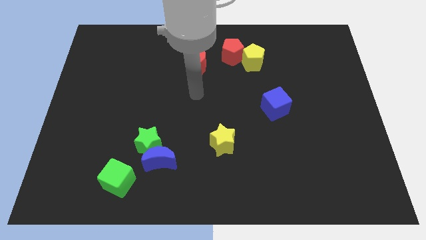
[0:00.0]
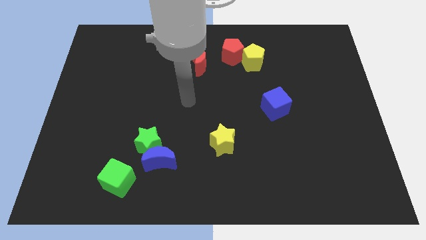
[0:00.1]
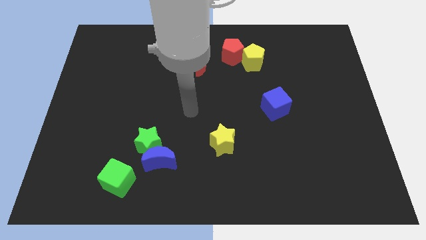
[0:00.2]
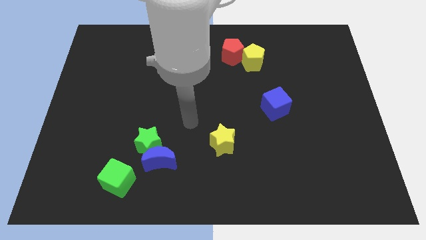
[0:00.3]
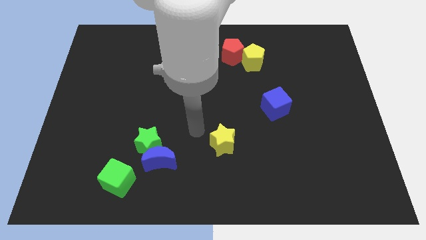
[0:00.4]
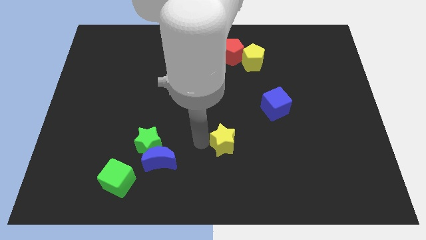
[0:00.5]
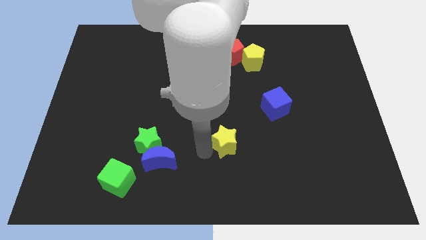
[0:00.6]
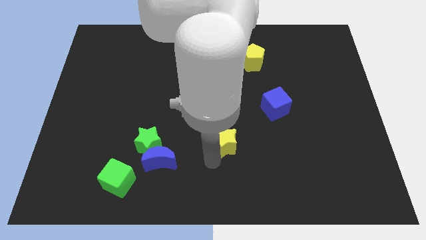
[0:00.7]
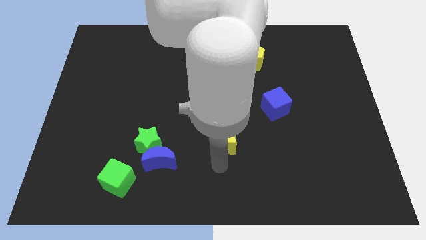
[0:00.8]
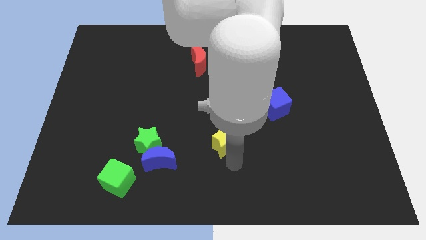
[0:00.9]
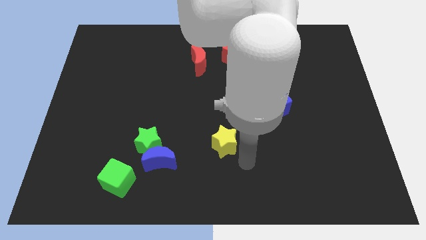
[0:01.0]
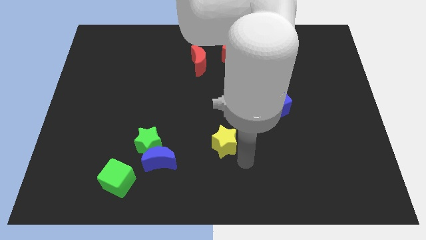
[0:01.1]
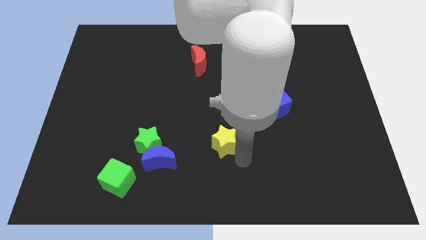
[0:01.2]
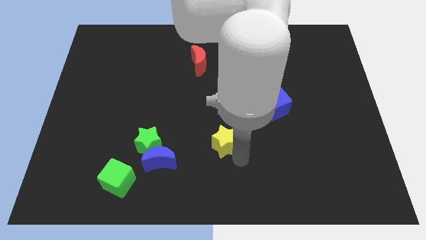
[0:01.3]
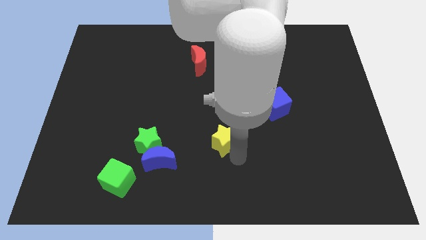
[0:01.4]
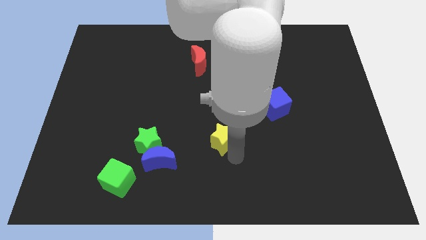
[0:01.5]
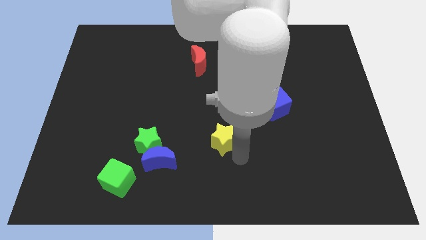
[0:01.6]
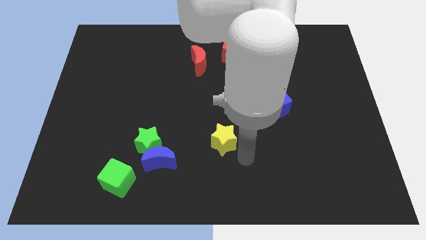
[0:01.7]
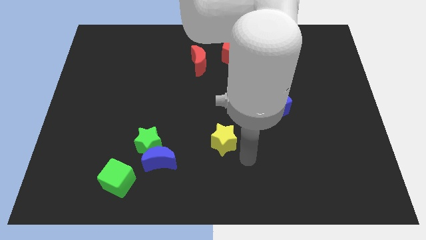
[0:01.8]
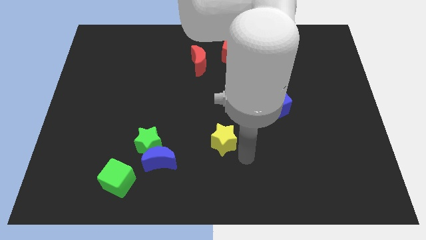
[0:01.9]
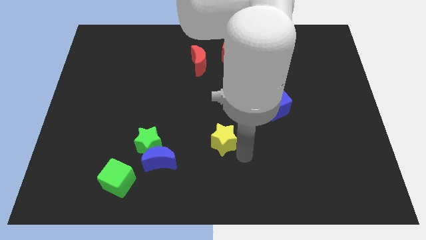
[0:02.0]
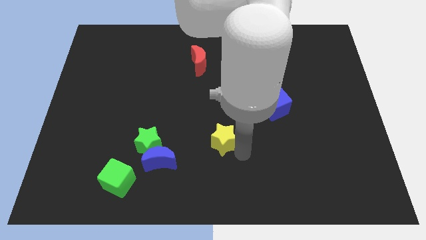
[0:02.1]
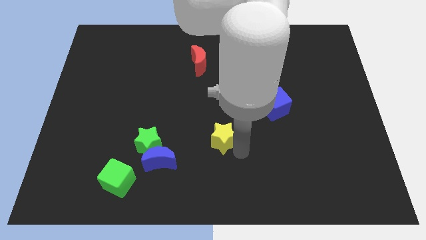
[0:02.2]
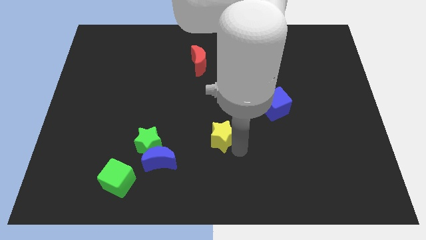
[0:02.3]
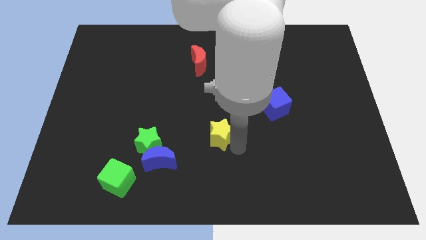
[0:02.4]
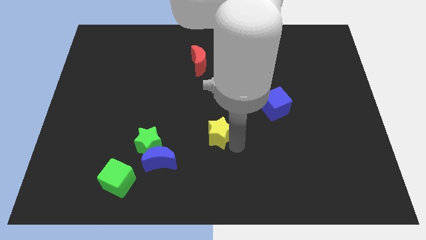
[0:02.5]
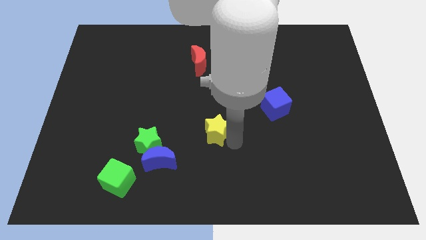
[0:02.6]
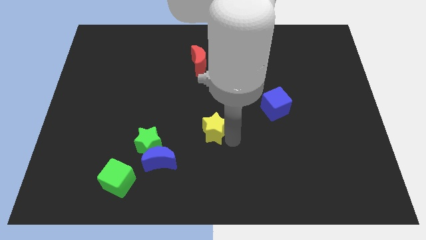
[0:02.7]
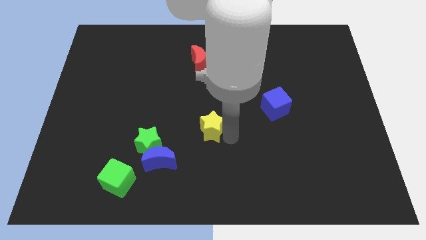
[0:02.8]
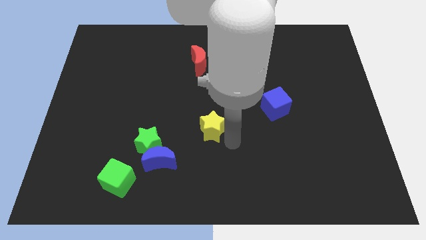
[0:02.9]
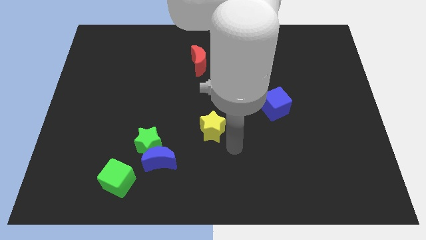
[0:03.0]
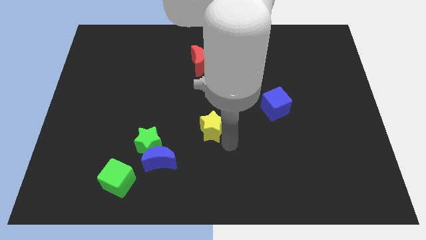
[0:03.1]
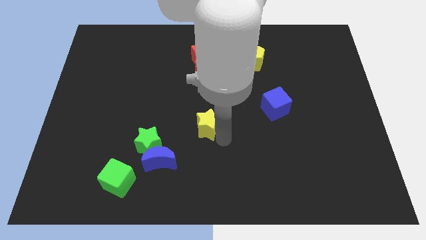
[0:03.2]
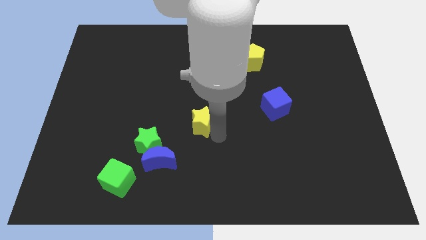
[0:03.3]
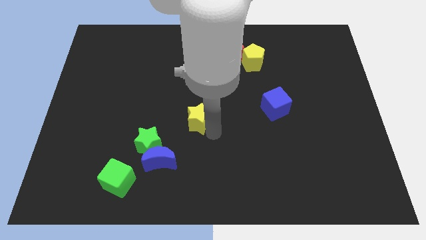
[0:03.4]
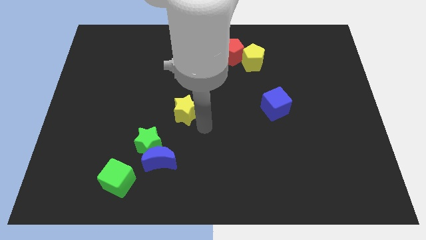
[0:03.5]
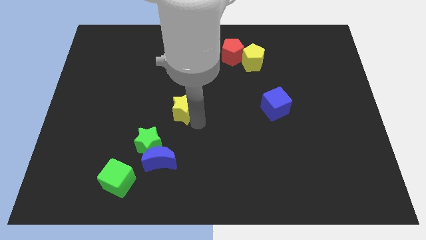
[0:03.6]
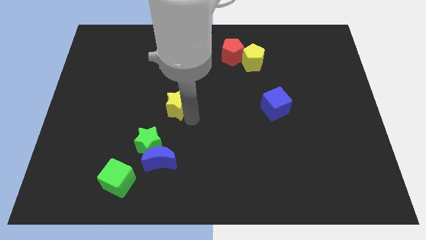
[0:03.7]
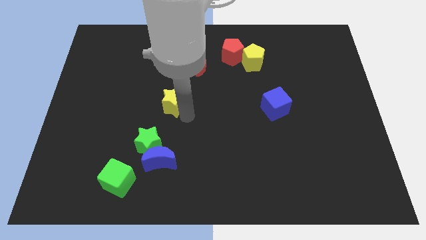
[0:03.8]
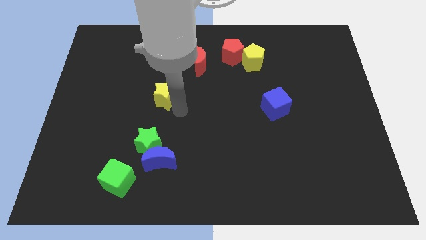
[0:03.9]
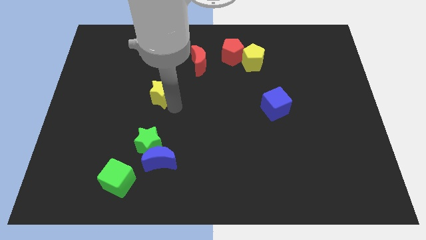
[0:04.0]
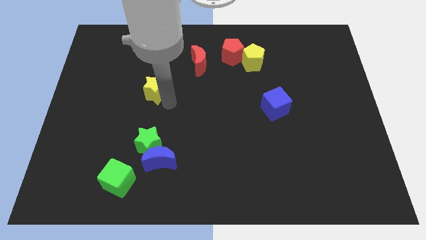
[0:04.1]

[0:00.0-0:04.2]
slide the yellow star up and to the left

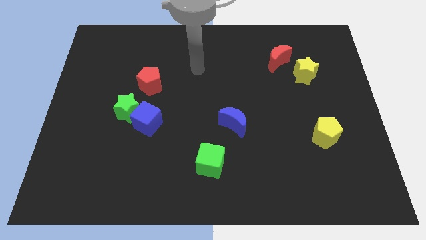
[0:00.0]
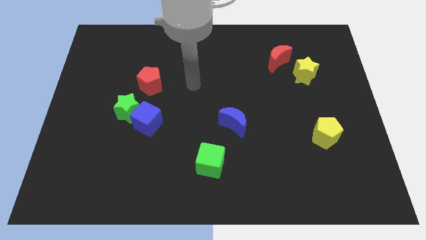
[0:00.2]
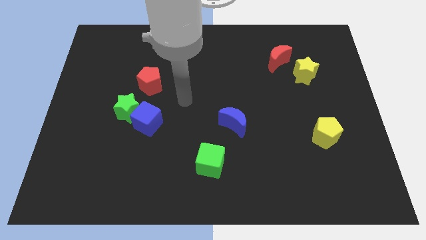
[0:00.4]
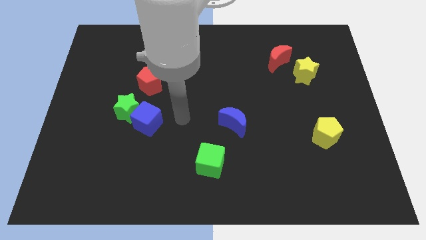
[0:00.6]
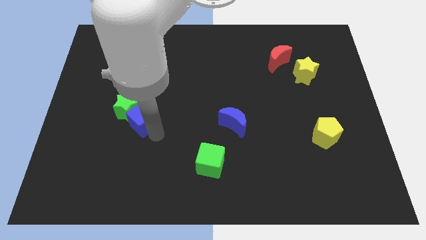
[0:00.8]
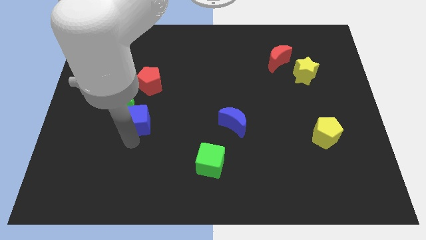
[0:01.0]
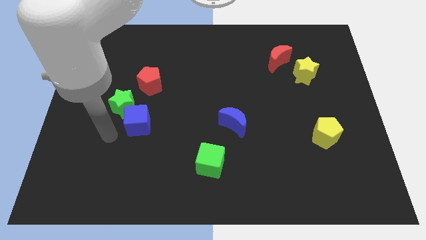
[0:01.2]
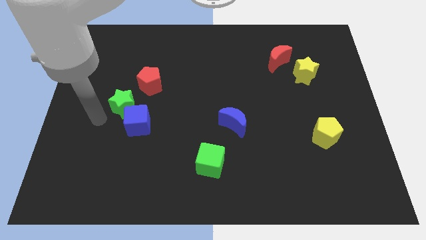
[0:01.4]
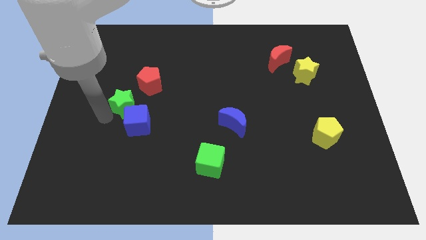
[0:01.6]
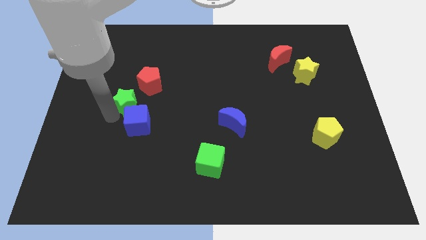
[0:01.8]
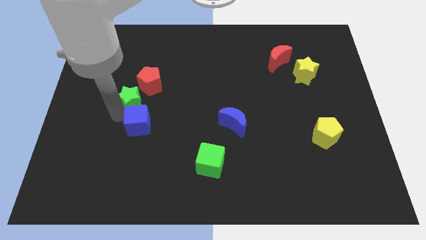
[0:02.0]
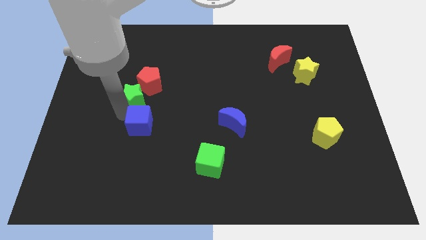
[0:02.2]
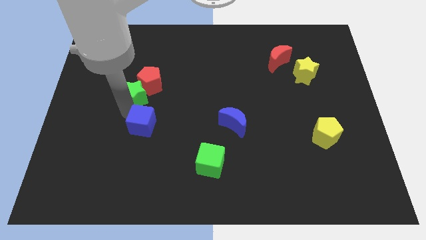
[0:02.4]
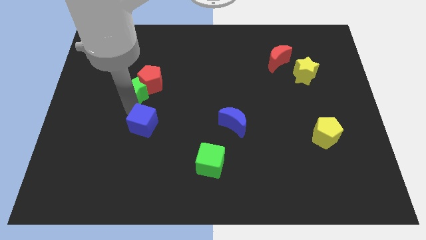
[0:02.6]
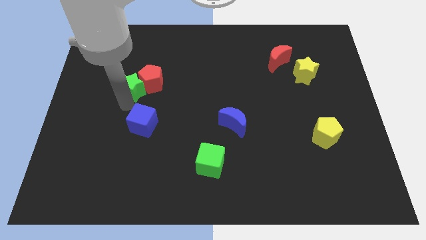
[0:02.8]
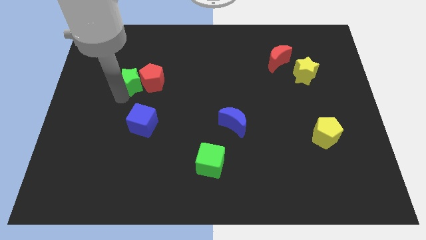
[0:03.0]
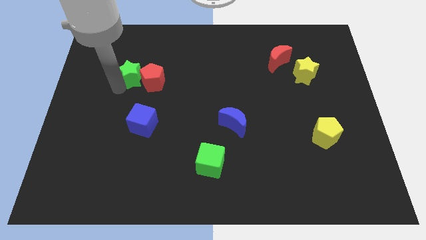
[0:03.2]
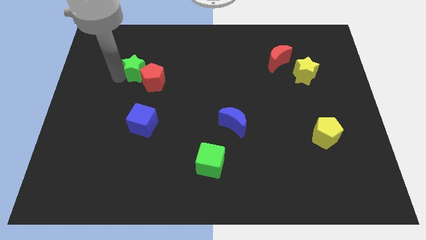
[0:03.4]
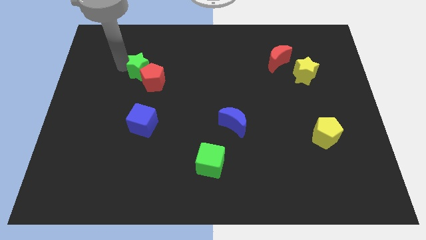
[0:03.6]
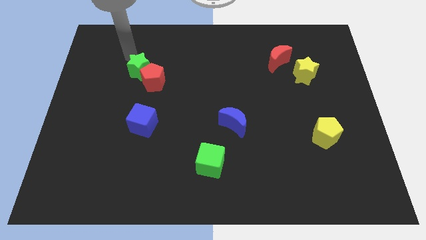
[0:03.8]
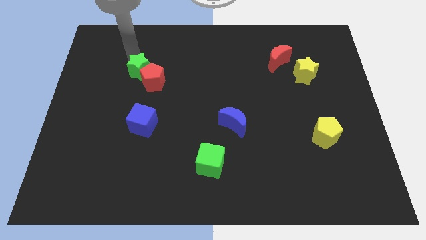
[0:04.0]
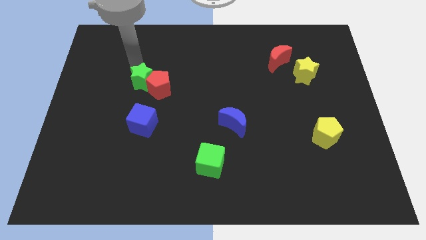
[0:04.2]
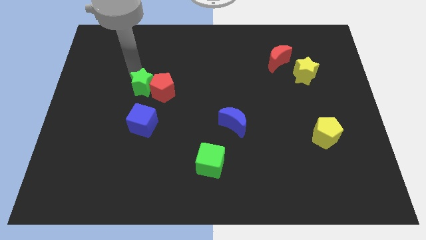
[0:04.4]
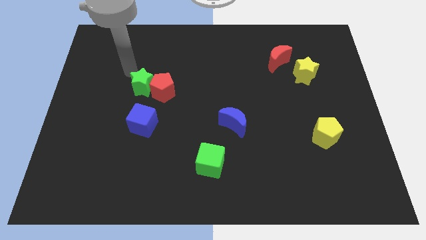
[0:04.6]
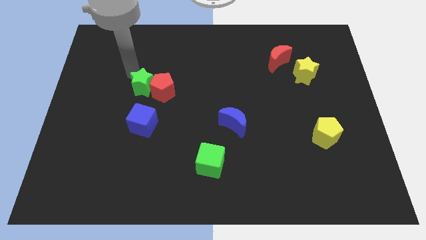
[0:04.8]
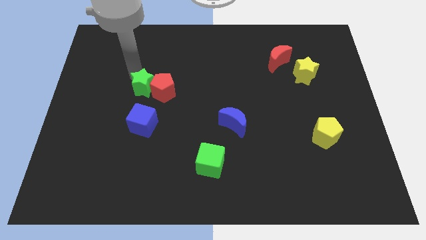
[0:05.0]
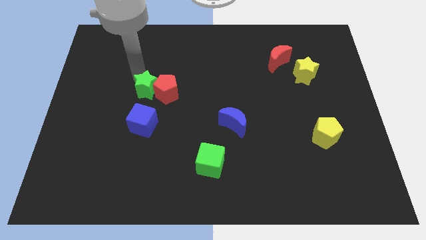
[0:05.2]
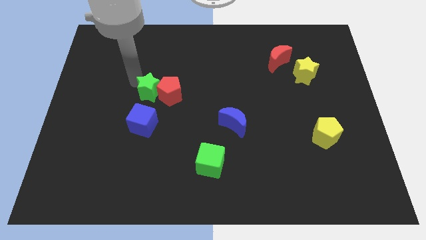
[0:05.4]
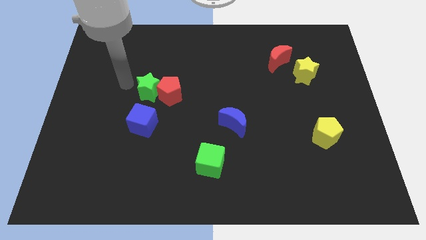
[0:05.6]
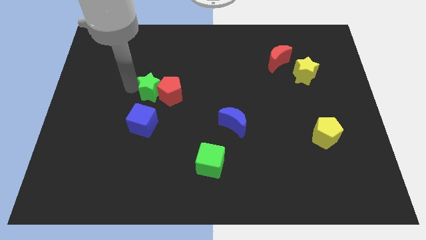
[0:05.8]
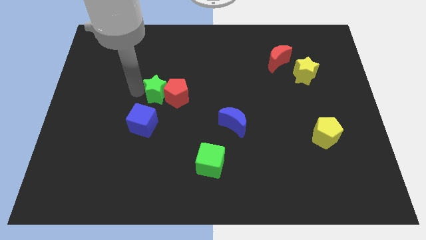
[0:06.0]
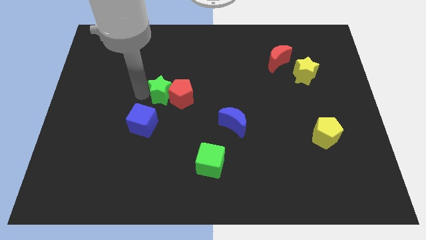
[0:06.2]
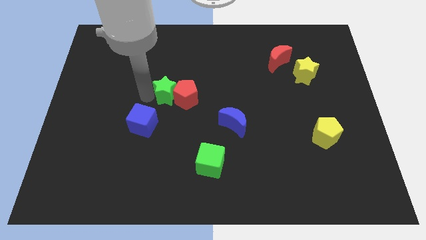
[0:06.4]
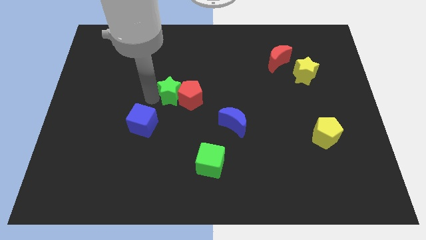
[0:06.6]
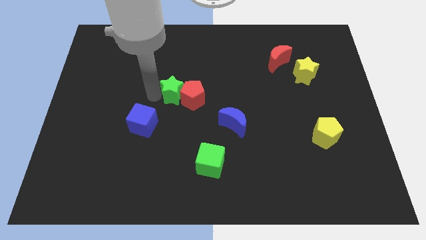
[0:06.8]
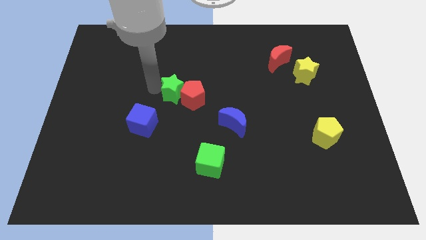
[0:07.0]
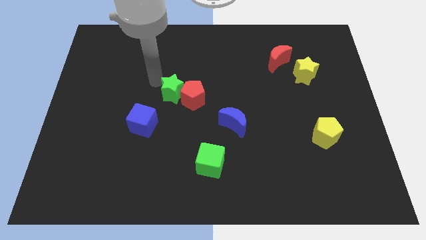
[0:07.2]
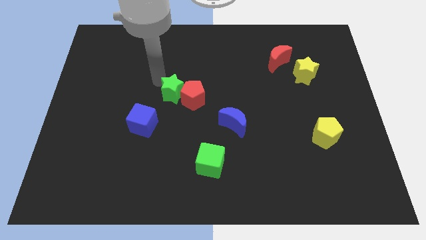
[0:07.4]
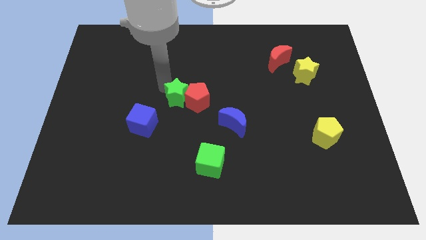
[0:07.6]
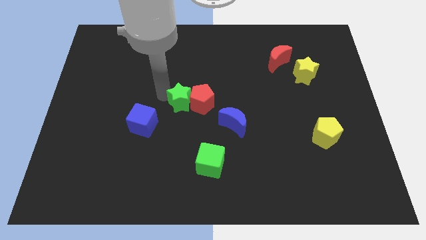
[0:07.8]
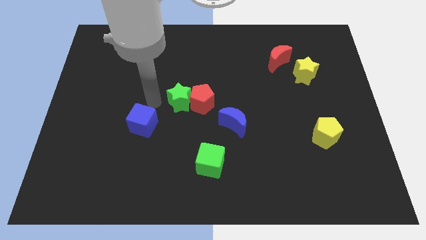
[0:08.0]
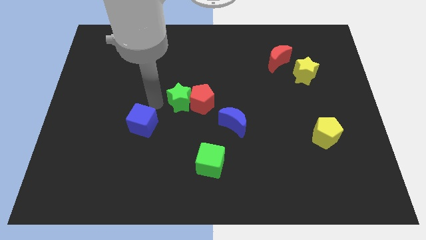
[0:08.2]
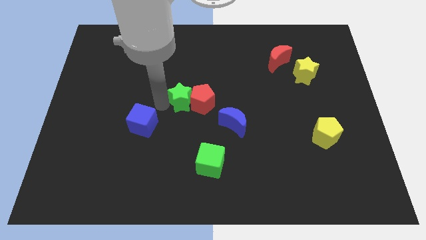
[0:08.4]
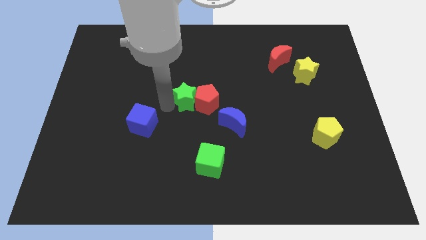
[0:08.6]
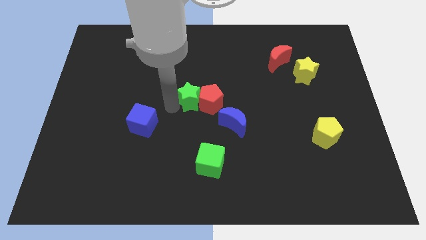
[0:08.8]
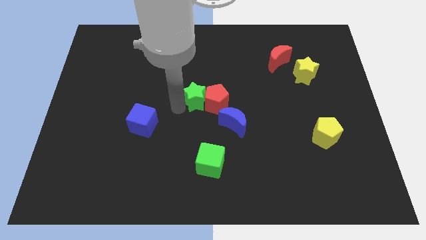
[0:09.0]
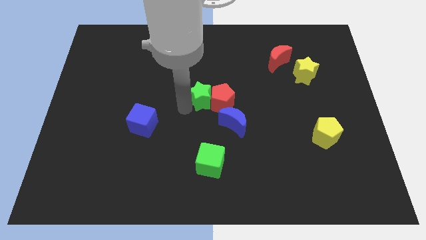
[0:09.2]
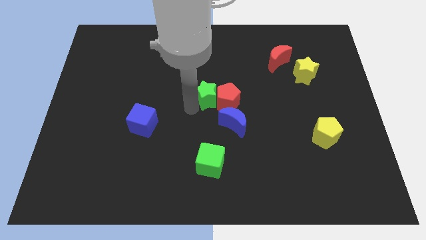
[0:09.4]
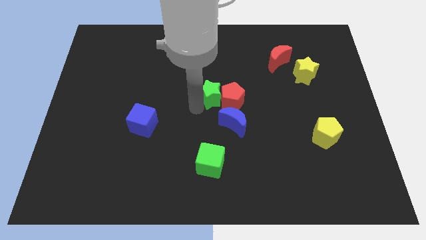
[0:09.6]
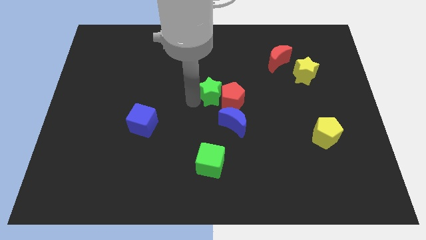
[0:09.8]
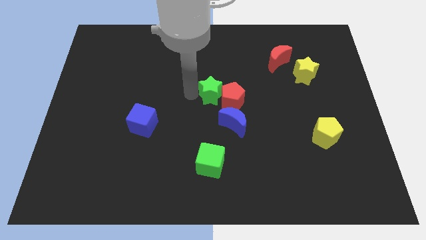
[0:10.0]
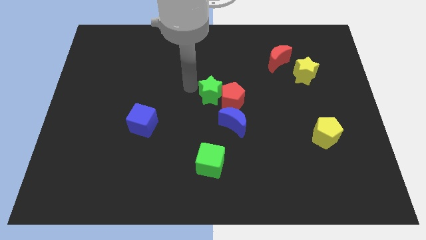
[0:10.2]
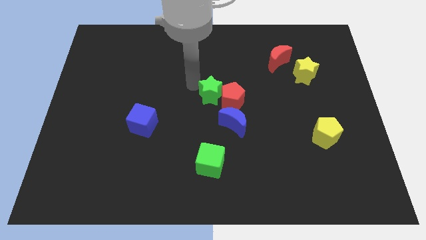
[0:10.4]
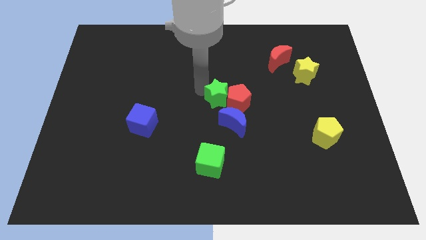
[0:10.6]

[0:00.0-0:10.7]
slide the green star to the right
